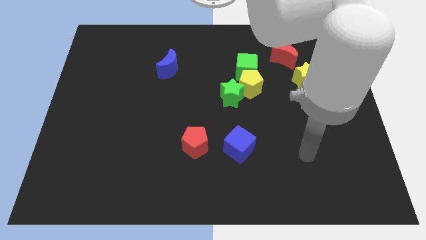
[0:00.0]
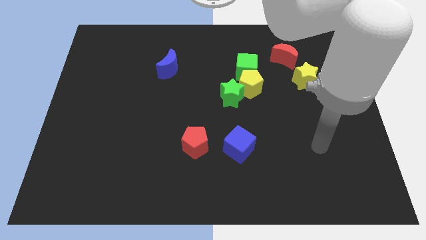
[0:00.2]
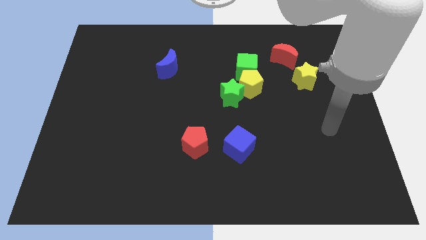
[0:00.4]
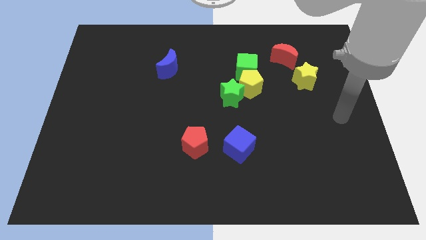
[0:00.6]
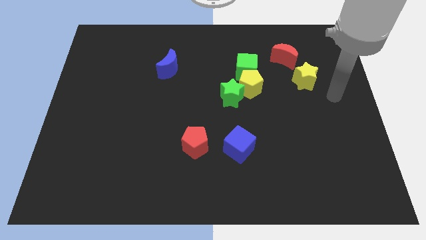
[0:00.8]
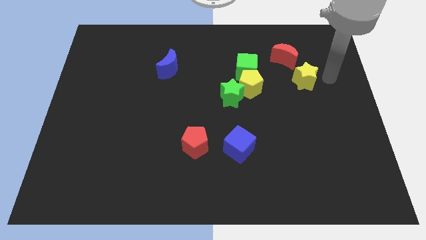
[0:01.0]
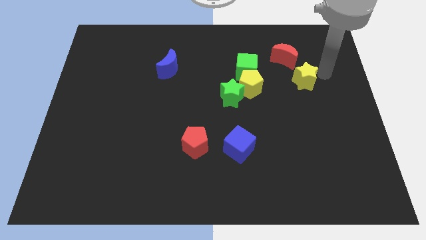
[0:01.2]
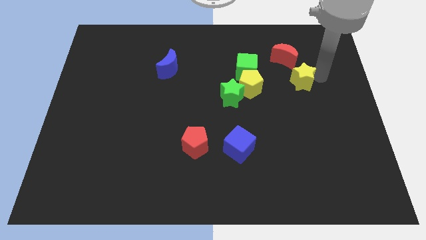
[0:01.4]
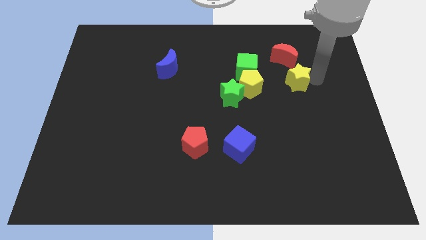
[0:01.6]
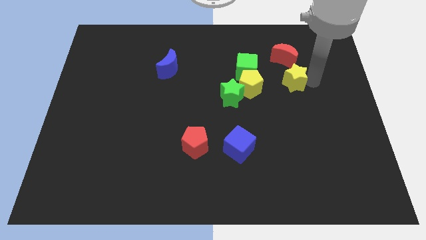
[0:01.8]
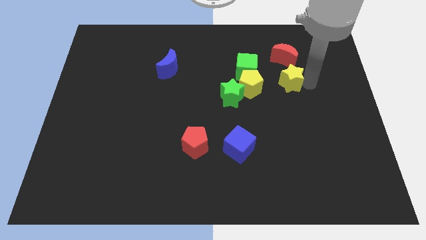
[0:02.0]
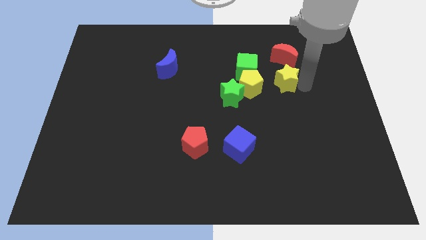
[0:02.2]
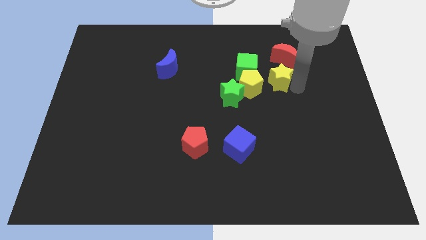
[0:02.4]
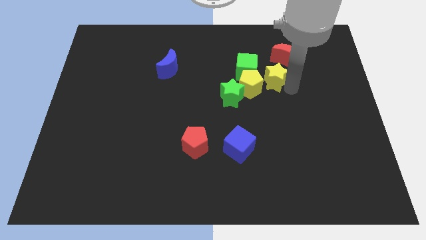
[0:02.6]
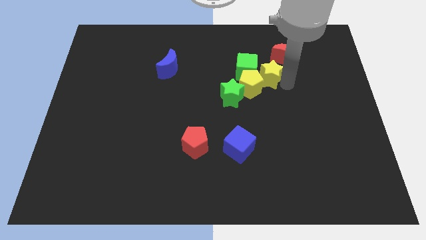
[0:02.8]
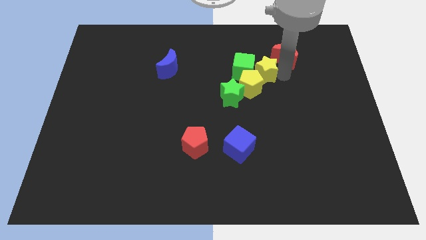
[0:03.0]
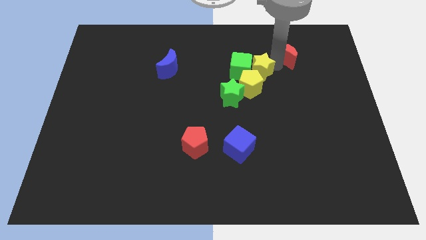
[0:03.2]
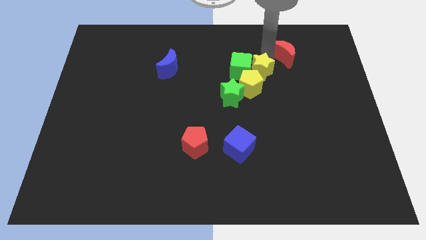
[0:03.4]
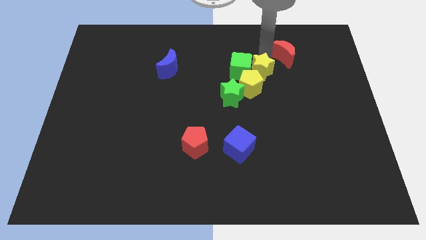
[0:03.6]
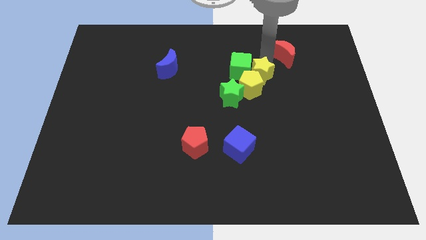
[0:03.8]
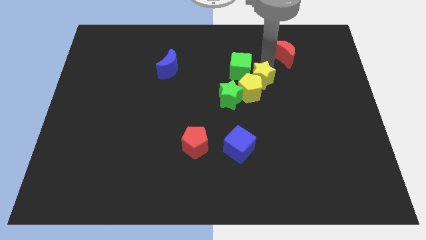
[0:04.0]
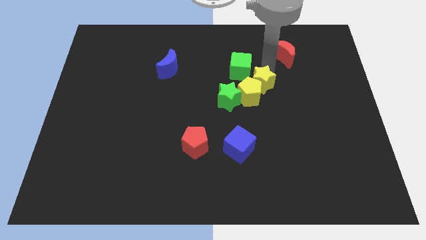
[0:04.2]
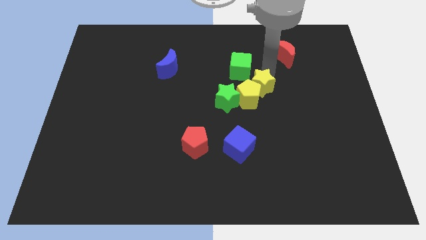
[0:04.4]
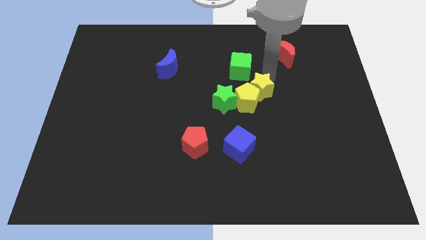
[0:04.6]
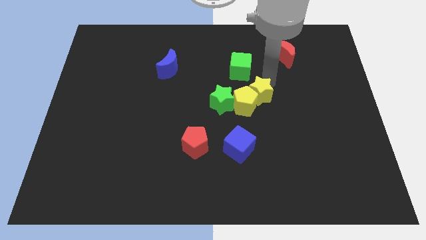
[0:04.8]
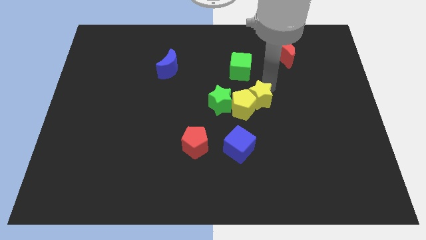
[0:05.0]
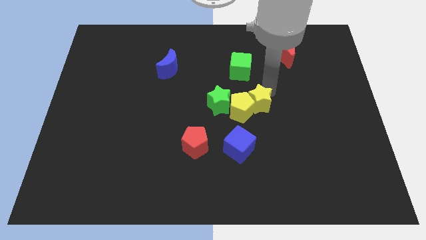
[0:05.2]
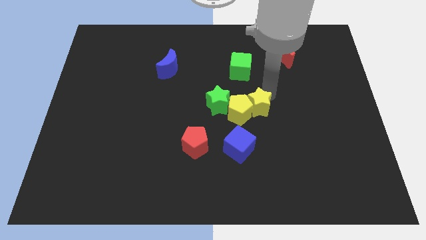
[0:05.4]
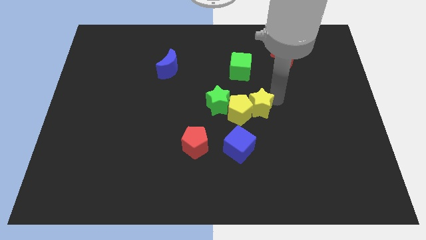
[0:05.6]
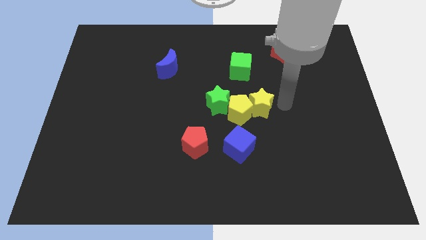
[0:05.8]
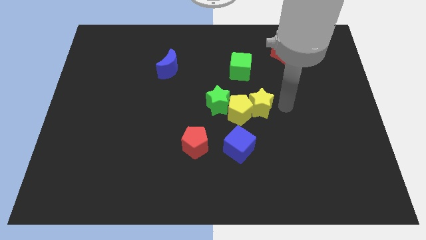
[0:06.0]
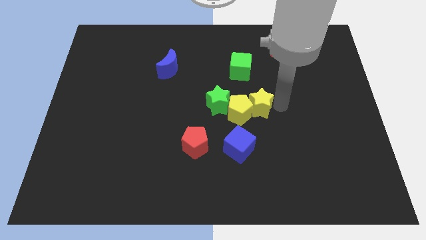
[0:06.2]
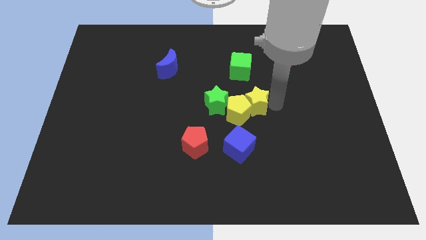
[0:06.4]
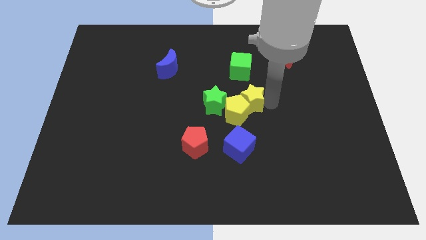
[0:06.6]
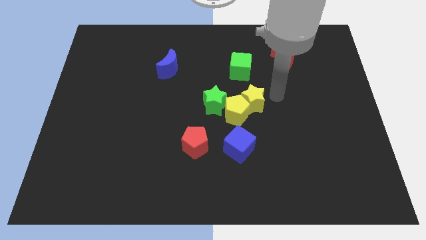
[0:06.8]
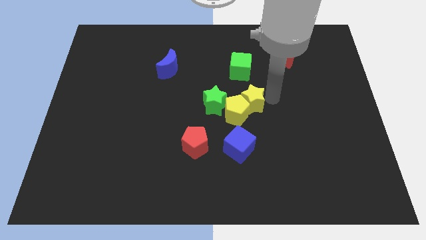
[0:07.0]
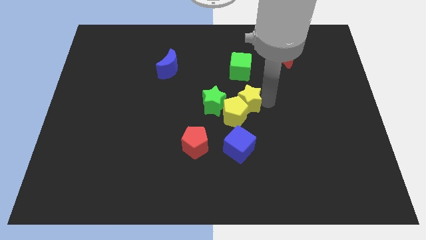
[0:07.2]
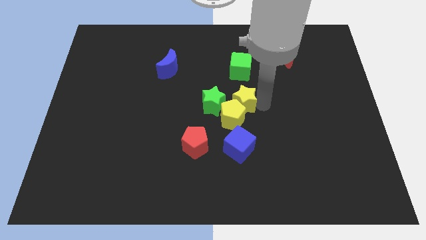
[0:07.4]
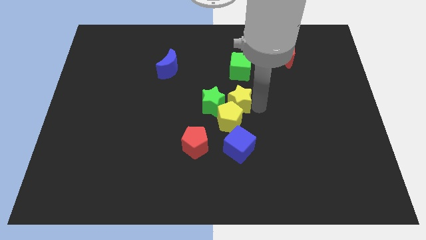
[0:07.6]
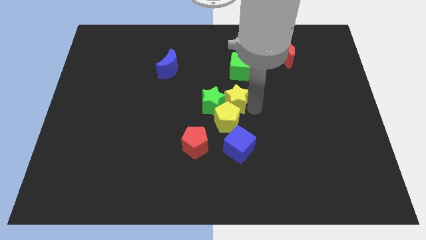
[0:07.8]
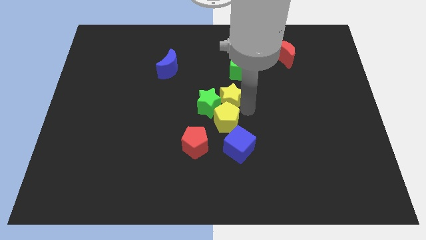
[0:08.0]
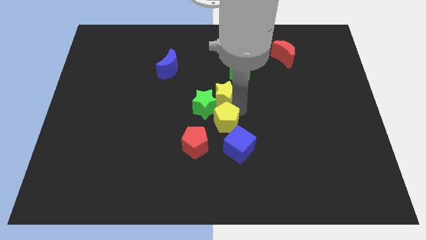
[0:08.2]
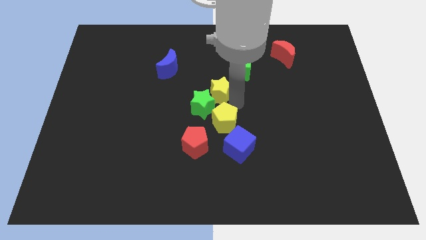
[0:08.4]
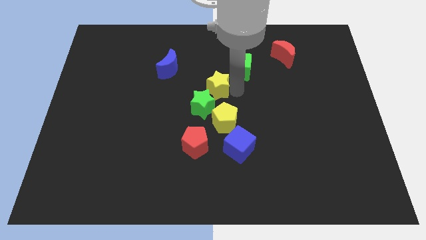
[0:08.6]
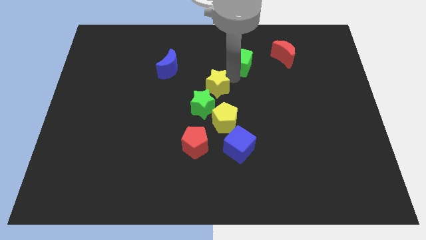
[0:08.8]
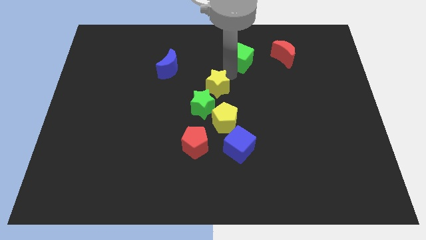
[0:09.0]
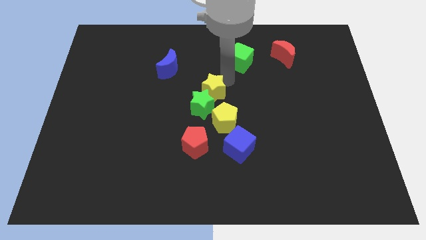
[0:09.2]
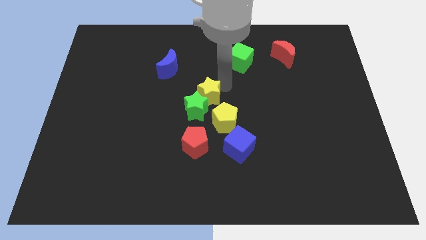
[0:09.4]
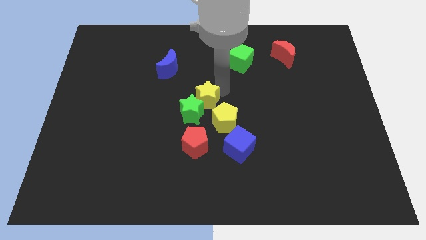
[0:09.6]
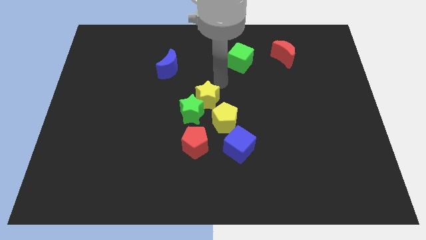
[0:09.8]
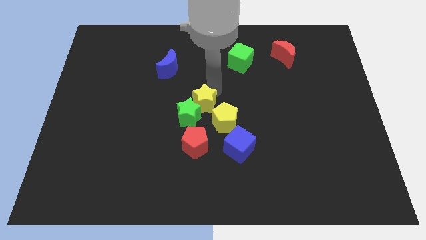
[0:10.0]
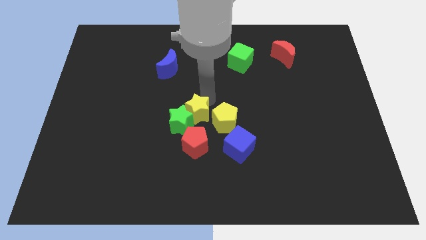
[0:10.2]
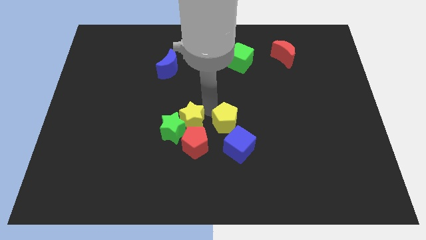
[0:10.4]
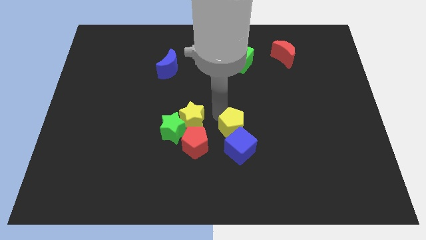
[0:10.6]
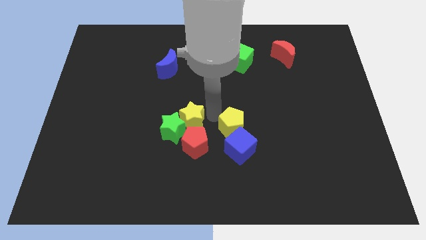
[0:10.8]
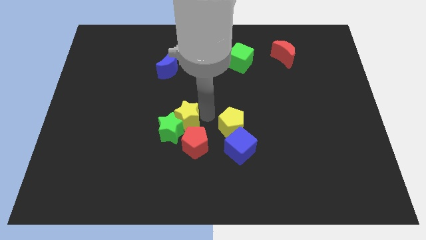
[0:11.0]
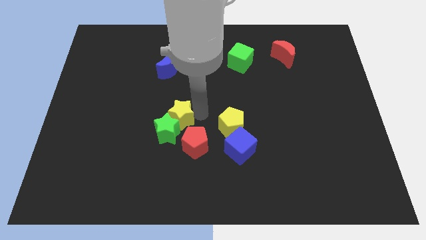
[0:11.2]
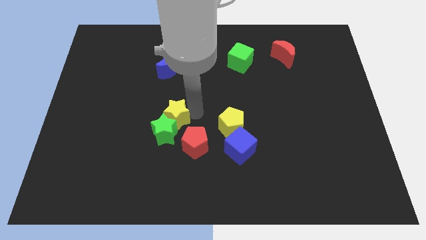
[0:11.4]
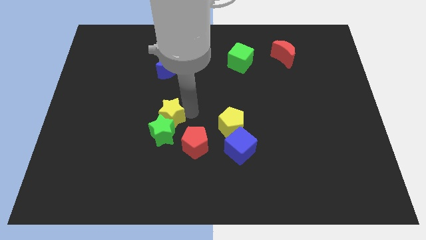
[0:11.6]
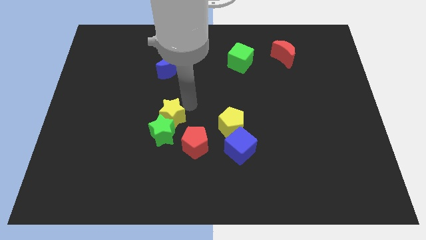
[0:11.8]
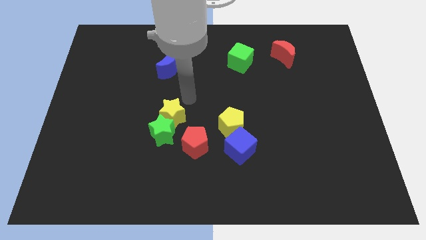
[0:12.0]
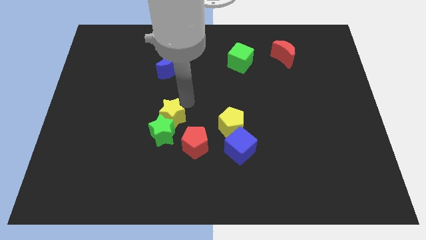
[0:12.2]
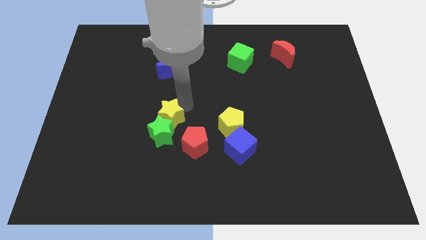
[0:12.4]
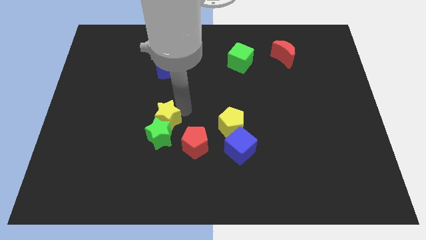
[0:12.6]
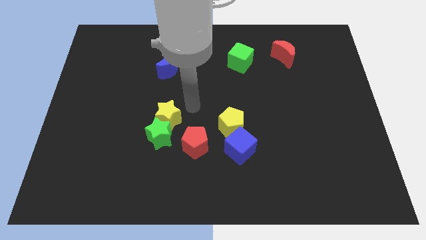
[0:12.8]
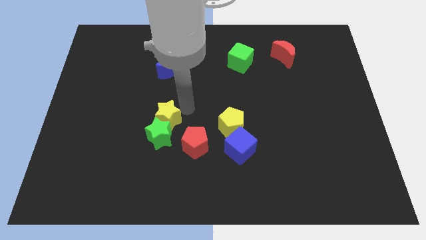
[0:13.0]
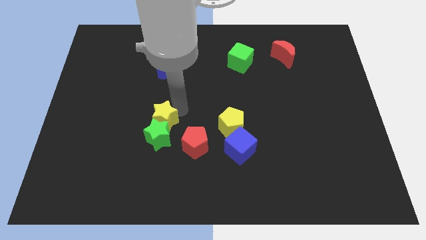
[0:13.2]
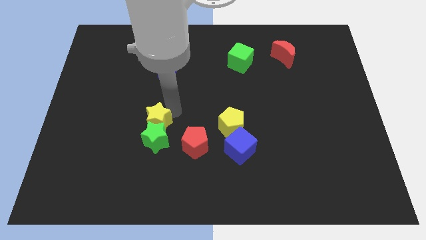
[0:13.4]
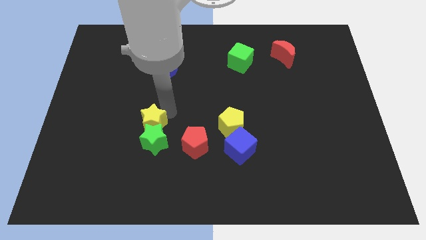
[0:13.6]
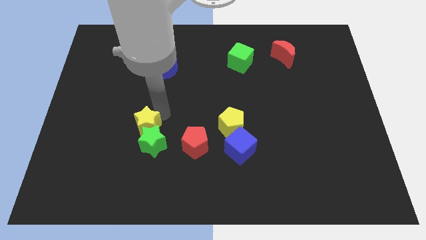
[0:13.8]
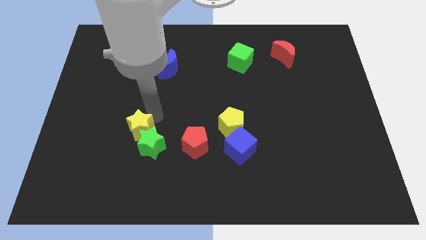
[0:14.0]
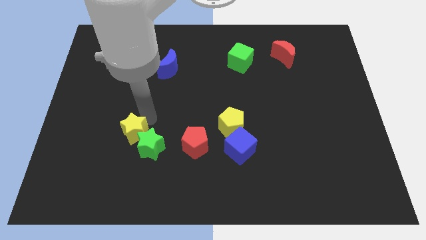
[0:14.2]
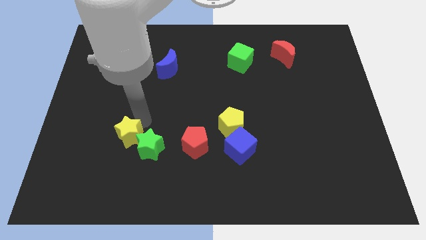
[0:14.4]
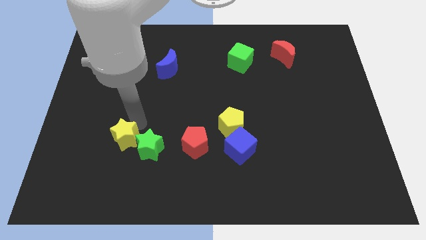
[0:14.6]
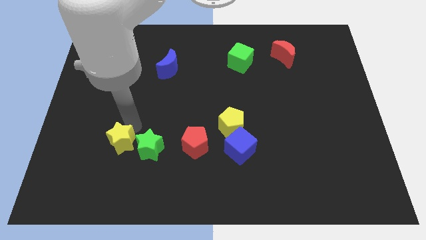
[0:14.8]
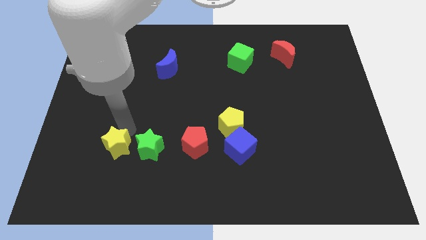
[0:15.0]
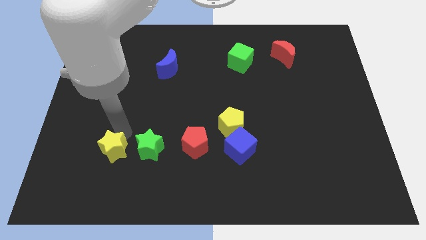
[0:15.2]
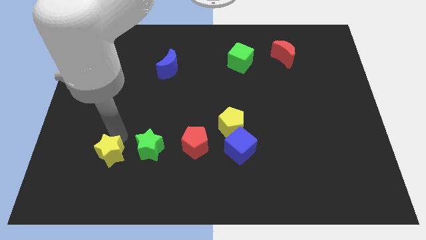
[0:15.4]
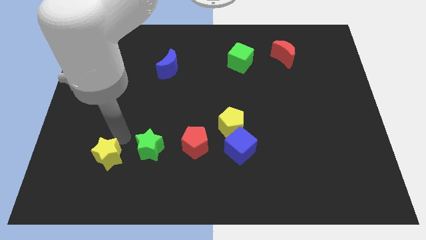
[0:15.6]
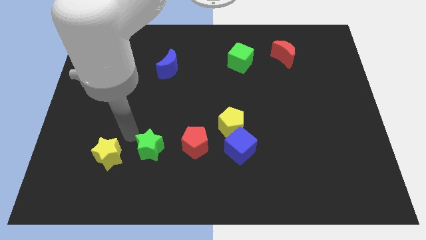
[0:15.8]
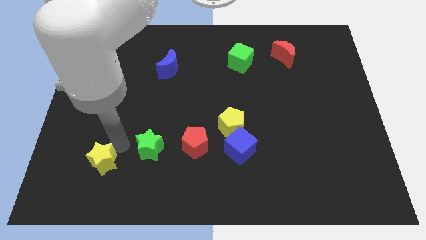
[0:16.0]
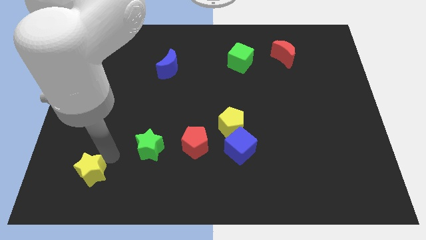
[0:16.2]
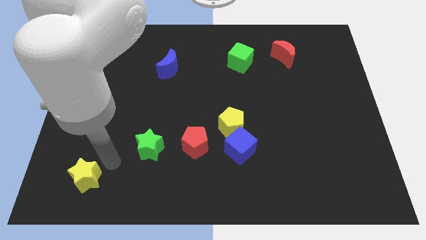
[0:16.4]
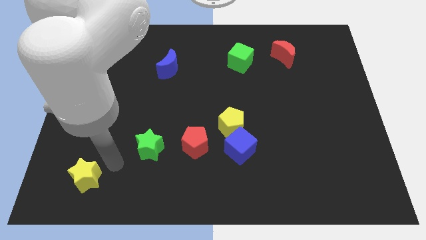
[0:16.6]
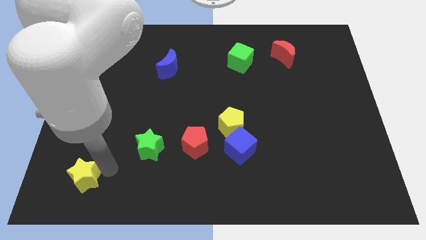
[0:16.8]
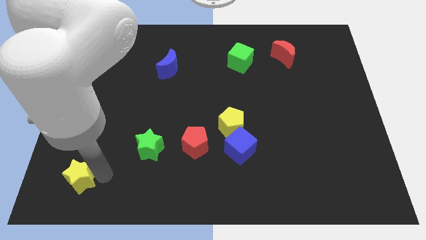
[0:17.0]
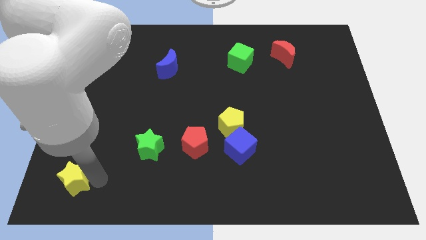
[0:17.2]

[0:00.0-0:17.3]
push the yellow star to the bottom left
